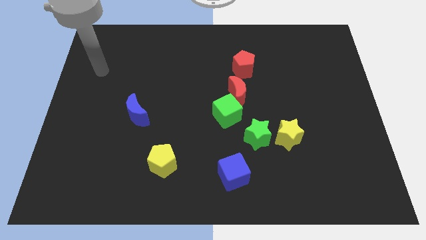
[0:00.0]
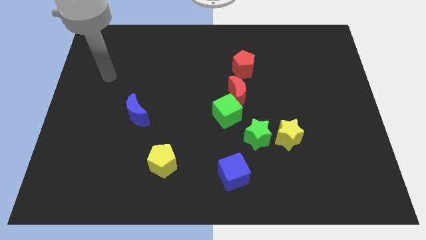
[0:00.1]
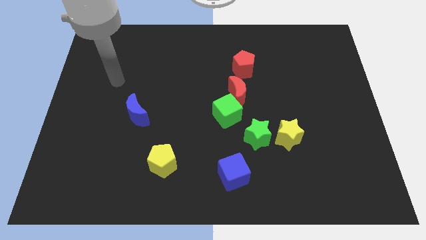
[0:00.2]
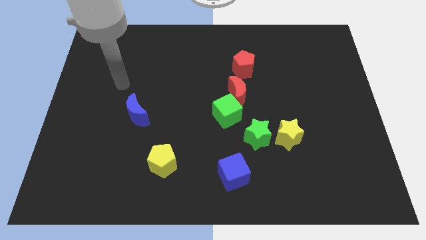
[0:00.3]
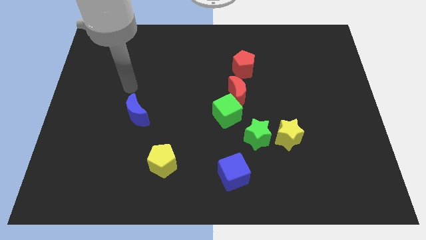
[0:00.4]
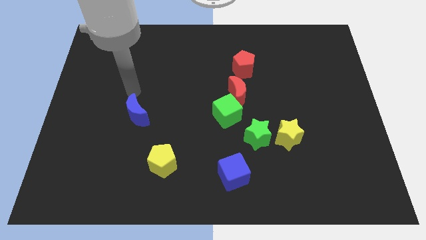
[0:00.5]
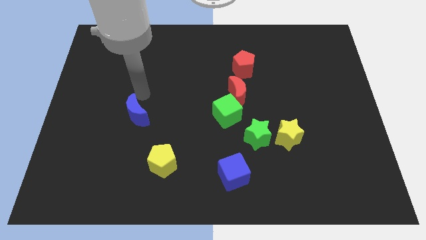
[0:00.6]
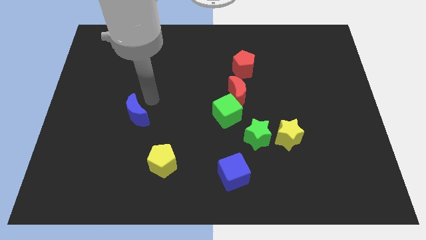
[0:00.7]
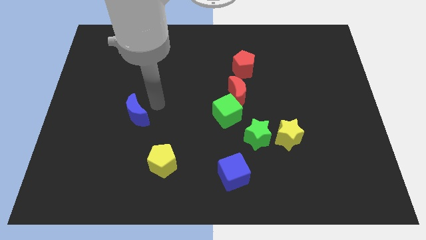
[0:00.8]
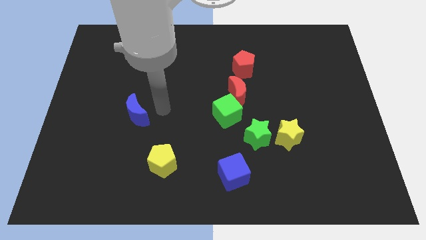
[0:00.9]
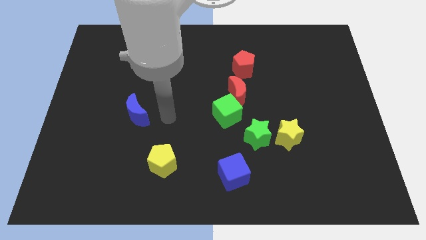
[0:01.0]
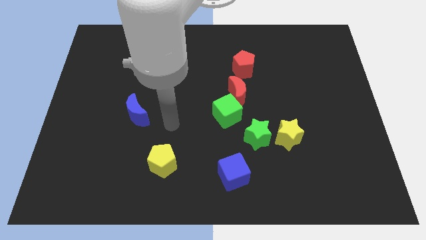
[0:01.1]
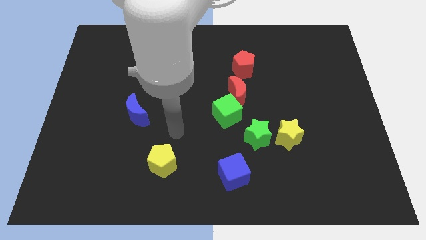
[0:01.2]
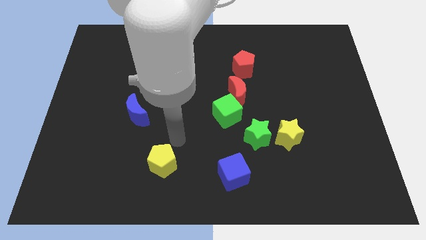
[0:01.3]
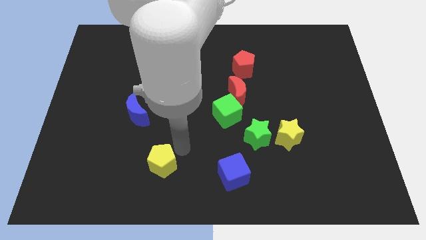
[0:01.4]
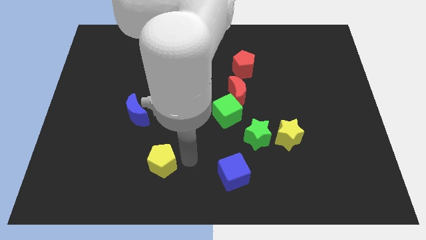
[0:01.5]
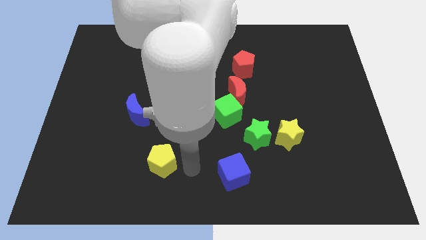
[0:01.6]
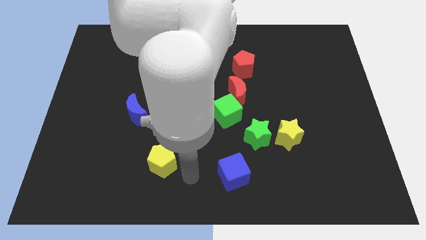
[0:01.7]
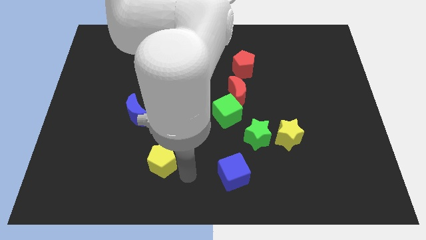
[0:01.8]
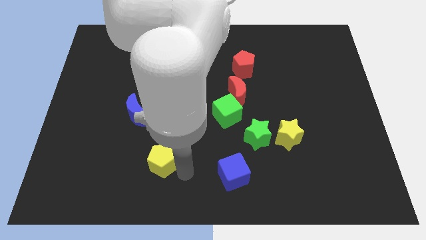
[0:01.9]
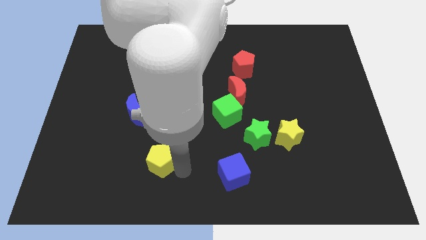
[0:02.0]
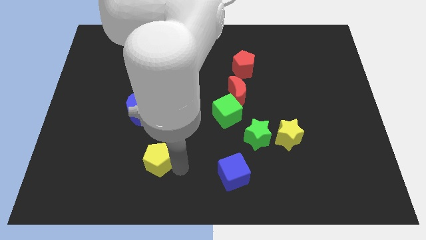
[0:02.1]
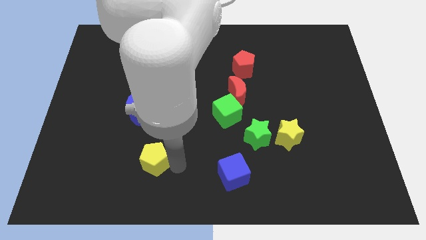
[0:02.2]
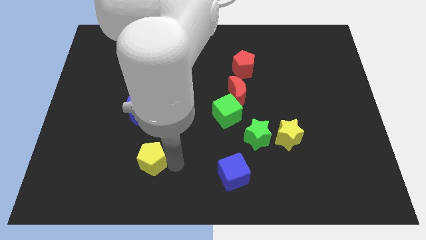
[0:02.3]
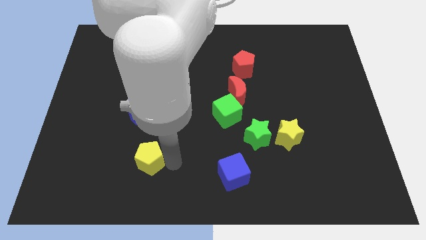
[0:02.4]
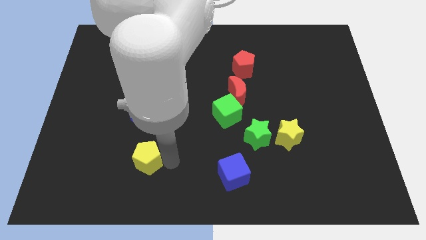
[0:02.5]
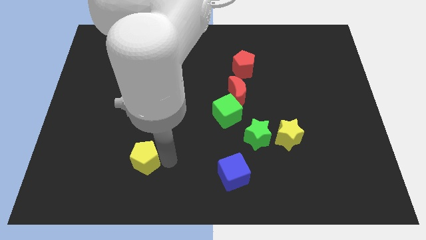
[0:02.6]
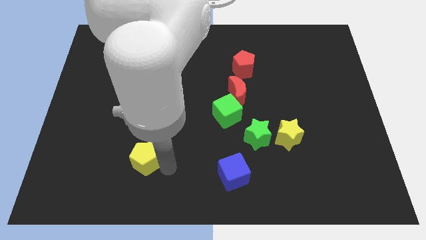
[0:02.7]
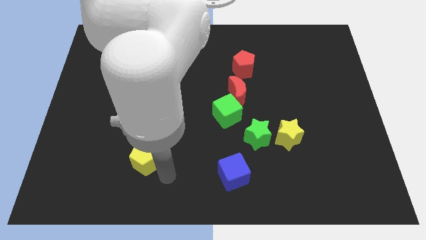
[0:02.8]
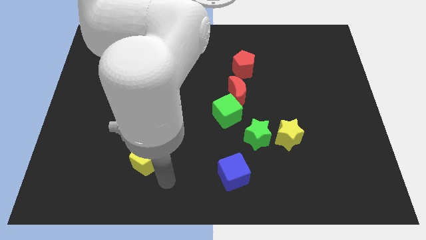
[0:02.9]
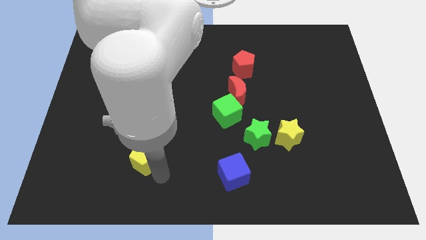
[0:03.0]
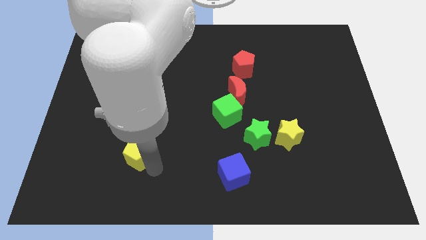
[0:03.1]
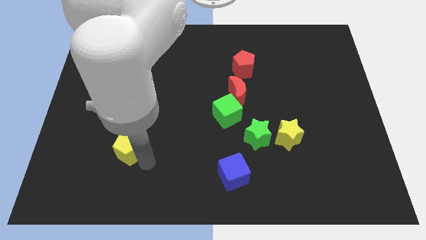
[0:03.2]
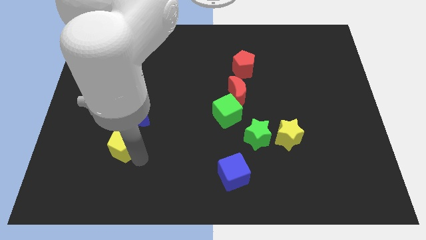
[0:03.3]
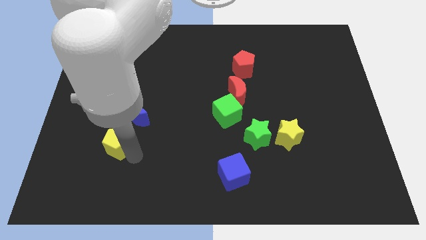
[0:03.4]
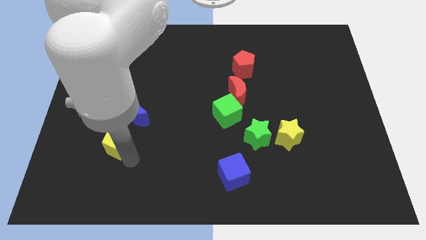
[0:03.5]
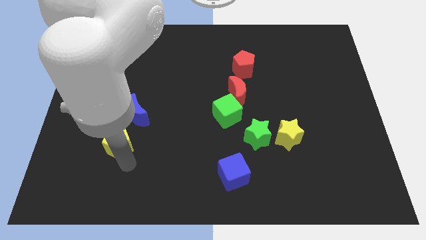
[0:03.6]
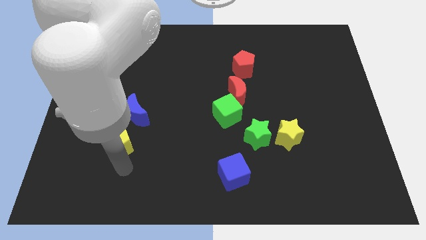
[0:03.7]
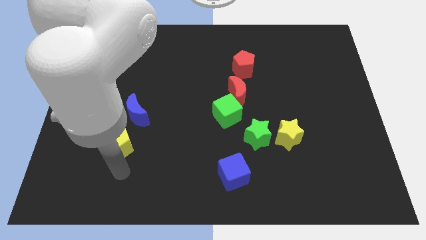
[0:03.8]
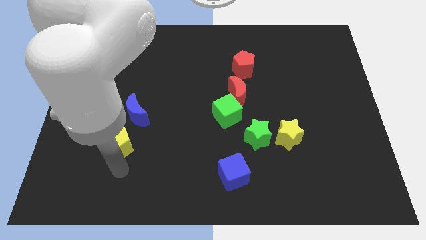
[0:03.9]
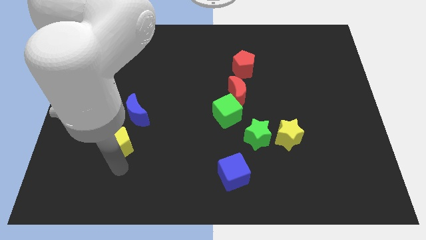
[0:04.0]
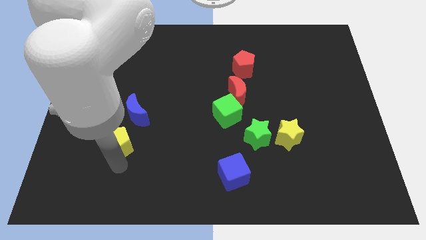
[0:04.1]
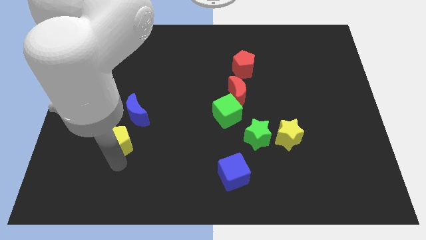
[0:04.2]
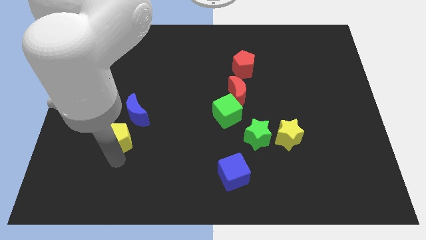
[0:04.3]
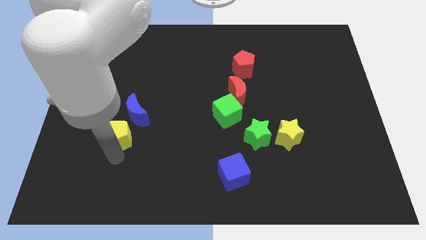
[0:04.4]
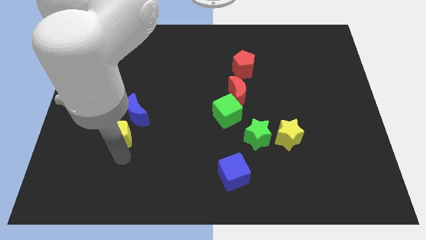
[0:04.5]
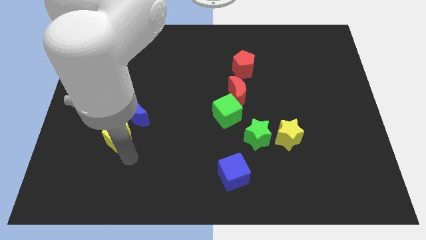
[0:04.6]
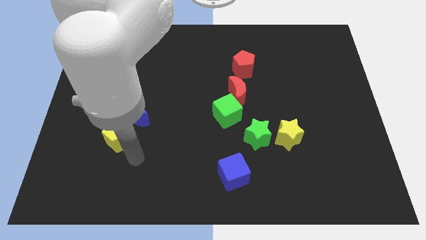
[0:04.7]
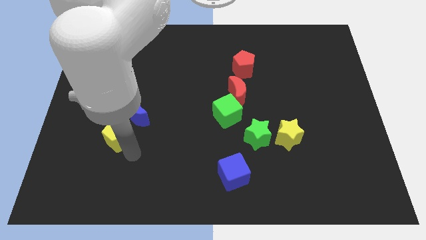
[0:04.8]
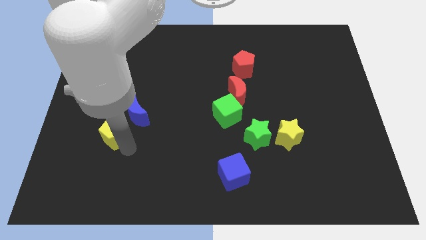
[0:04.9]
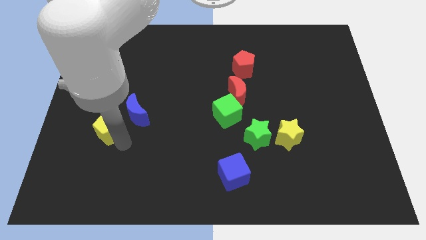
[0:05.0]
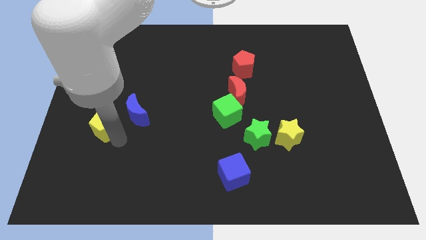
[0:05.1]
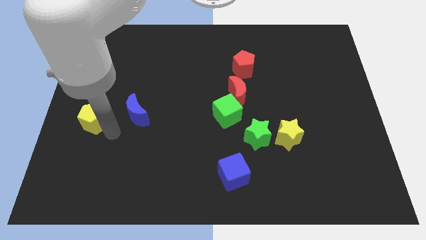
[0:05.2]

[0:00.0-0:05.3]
put the yellow pentagon to the left side of the board

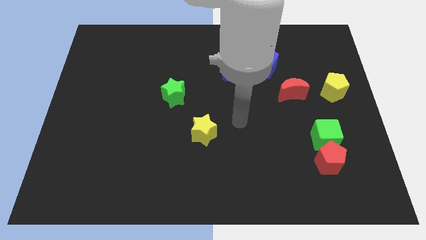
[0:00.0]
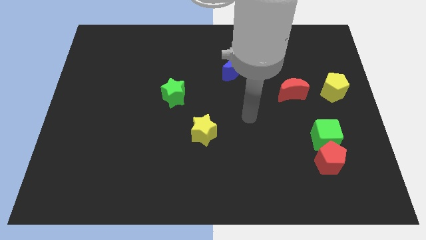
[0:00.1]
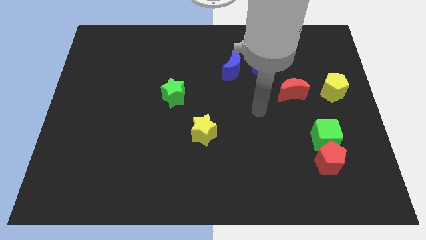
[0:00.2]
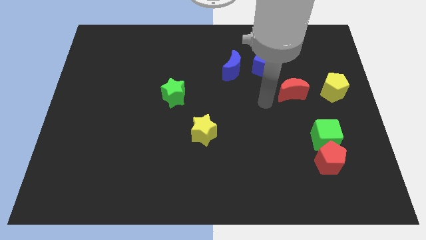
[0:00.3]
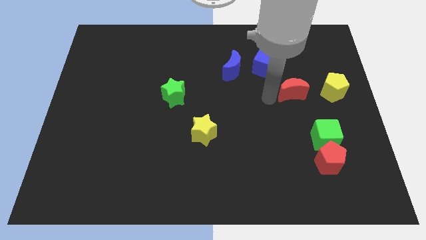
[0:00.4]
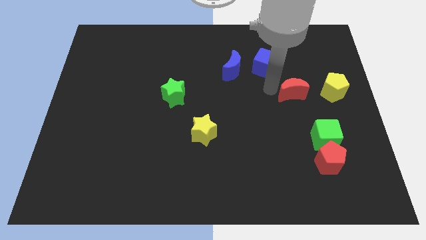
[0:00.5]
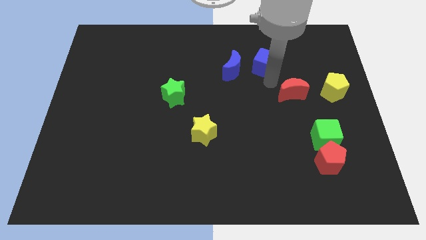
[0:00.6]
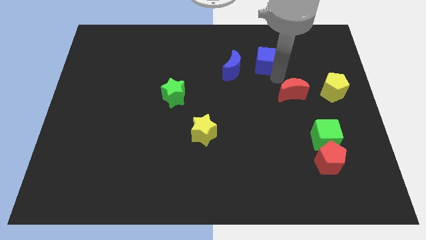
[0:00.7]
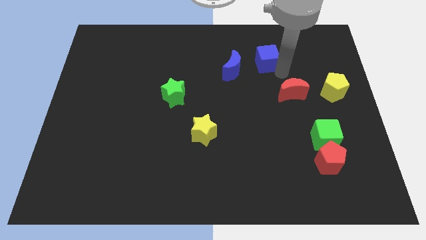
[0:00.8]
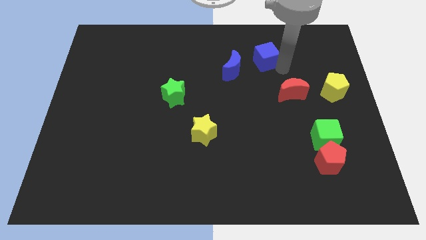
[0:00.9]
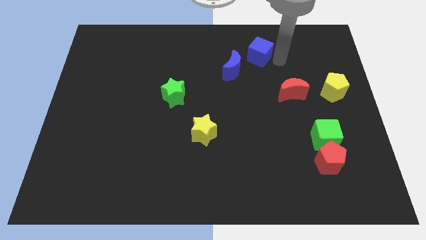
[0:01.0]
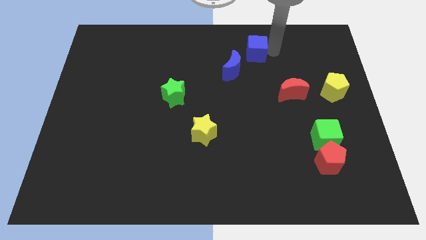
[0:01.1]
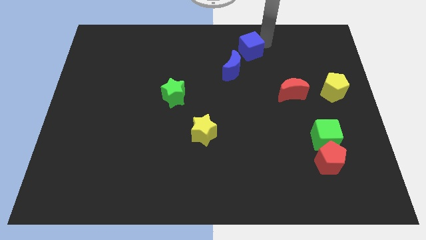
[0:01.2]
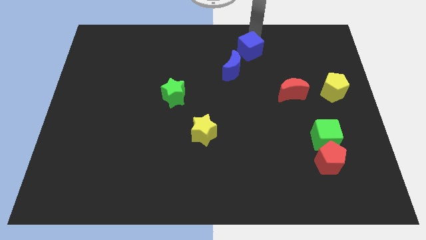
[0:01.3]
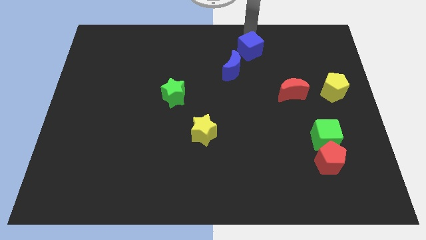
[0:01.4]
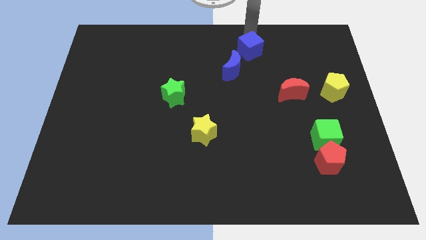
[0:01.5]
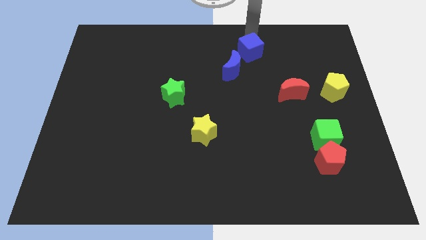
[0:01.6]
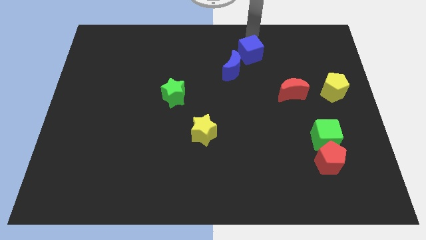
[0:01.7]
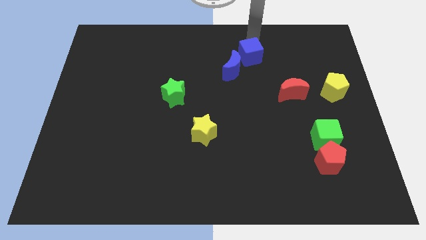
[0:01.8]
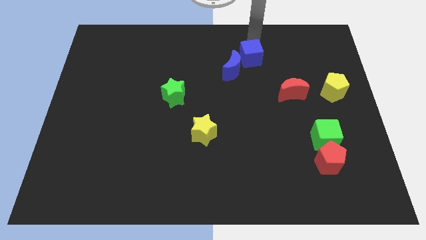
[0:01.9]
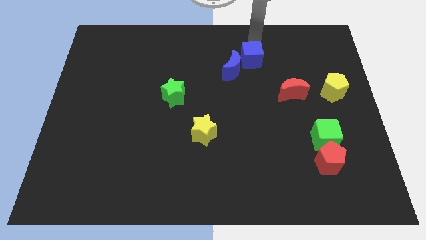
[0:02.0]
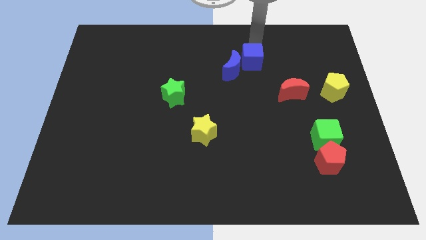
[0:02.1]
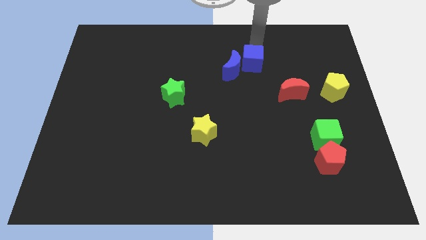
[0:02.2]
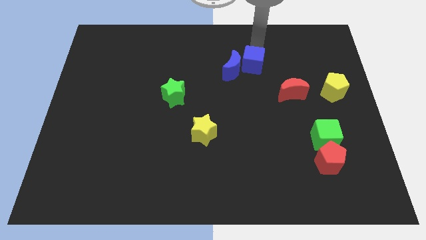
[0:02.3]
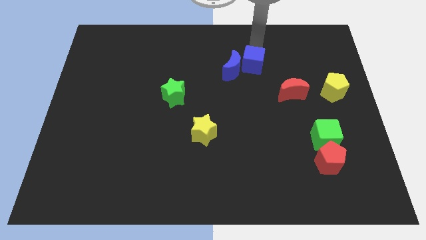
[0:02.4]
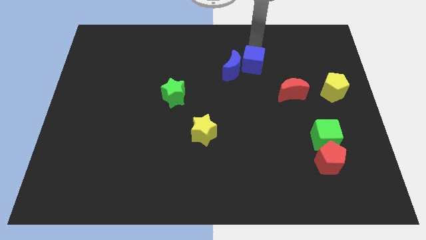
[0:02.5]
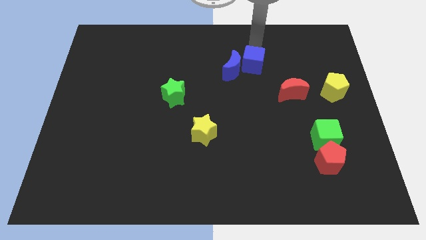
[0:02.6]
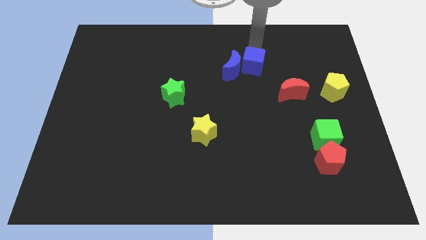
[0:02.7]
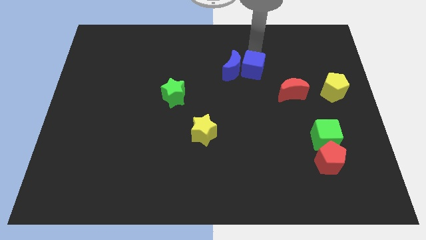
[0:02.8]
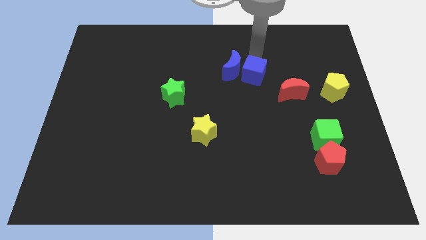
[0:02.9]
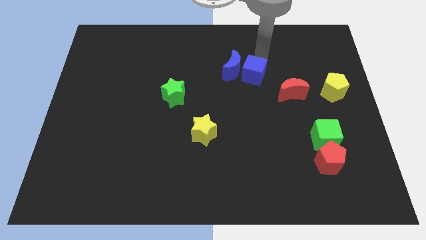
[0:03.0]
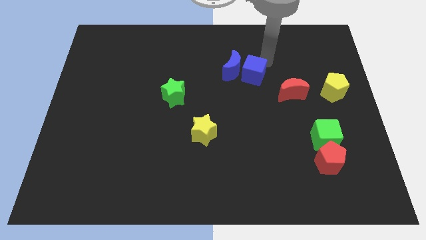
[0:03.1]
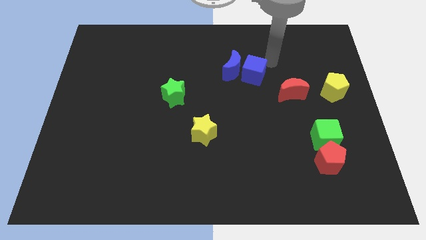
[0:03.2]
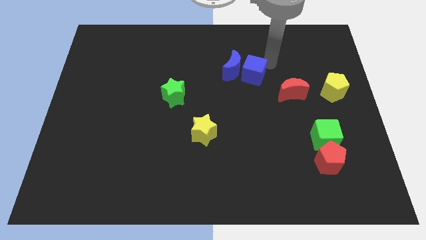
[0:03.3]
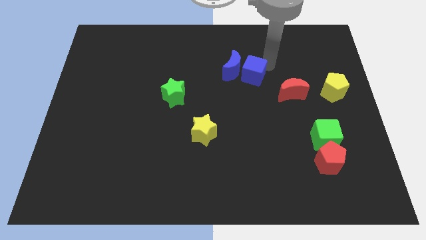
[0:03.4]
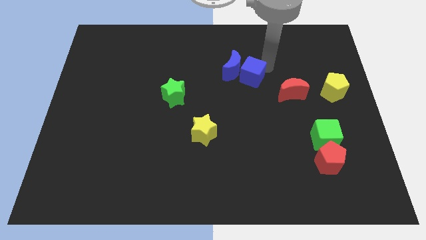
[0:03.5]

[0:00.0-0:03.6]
put the blue cube to the middle
